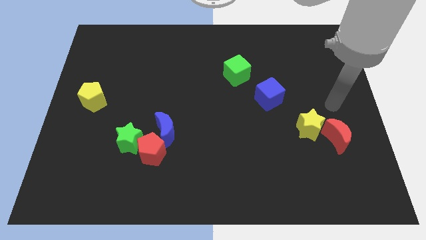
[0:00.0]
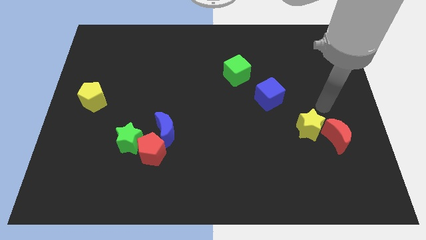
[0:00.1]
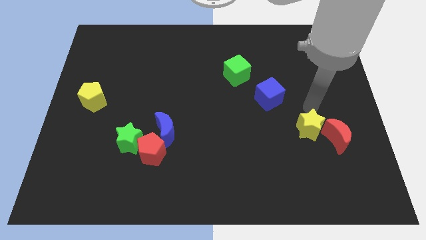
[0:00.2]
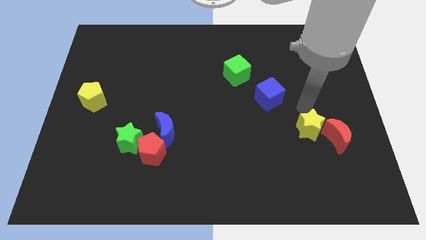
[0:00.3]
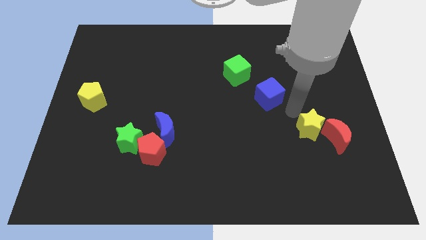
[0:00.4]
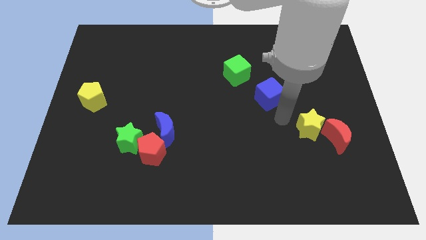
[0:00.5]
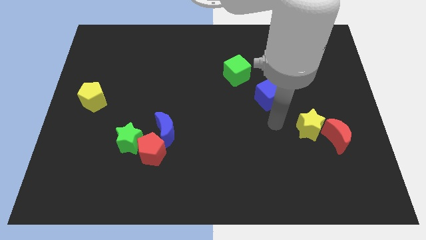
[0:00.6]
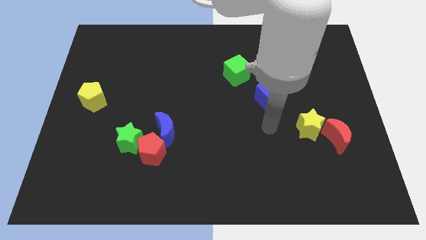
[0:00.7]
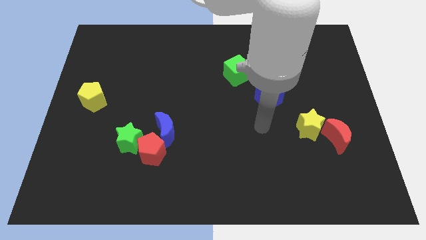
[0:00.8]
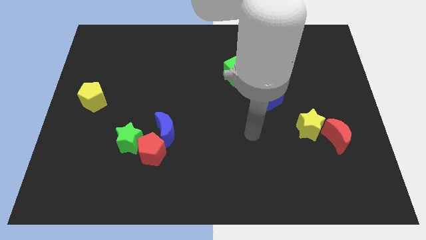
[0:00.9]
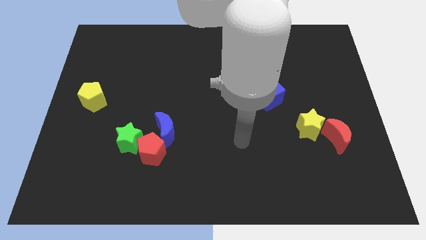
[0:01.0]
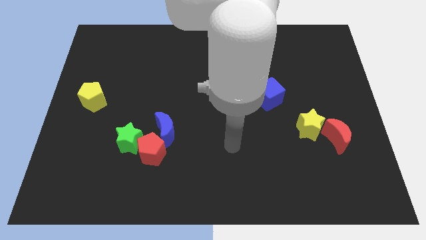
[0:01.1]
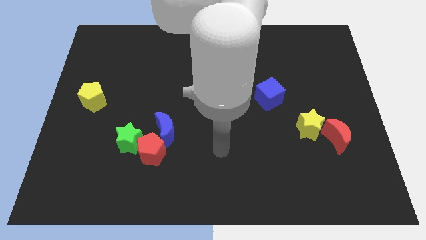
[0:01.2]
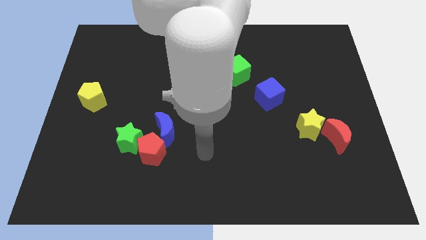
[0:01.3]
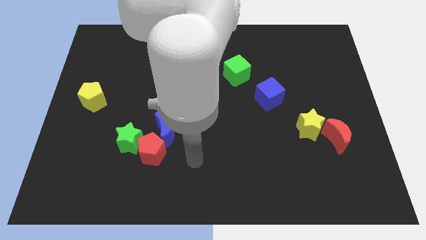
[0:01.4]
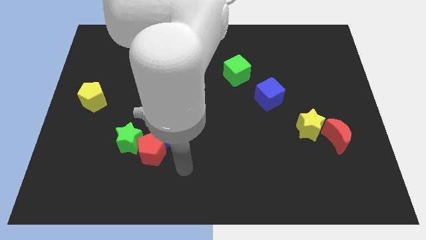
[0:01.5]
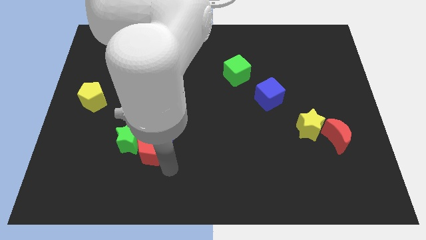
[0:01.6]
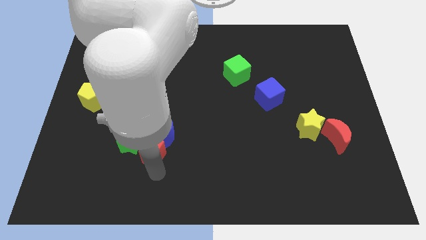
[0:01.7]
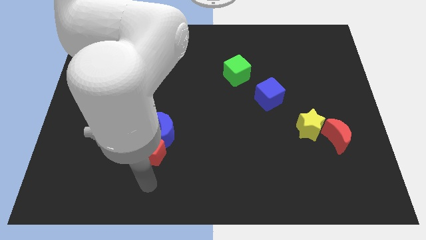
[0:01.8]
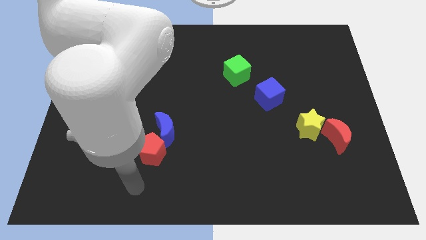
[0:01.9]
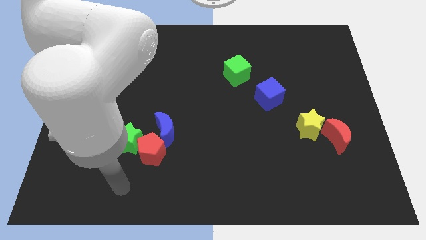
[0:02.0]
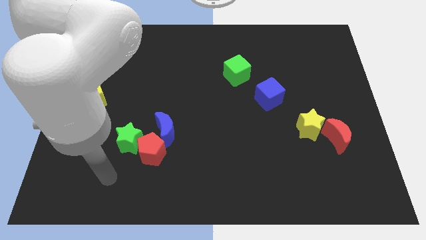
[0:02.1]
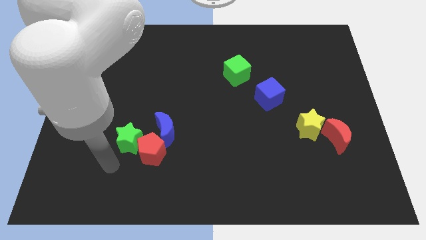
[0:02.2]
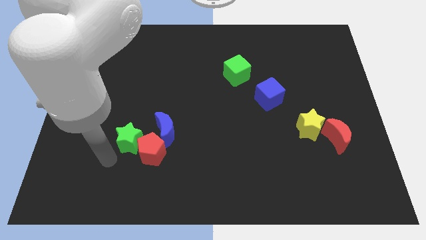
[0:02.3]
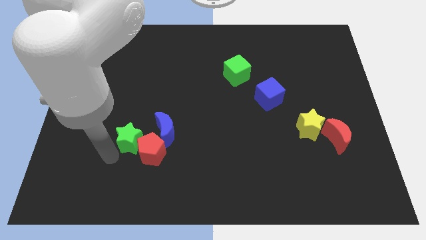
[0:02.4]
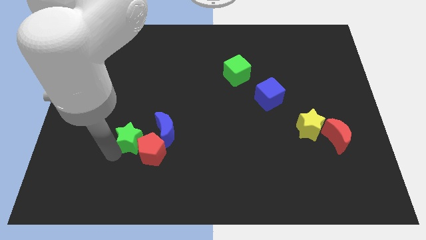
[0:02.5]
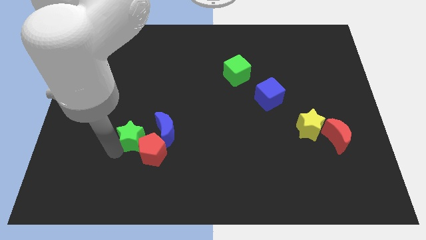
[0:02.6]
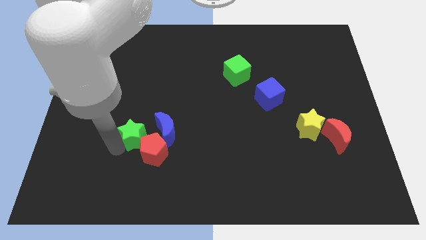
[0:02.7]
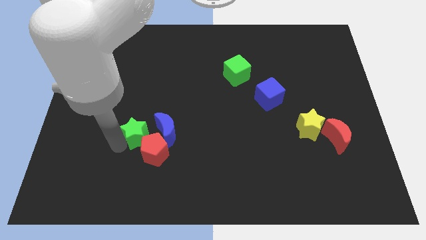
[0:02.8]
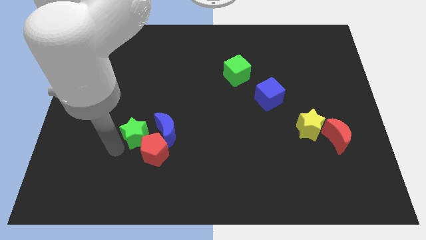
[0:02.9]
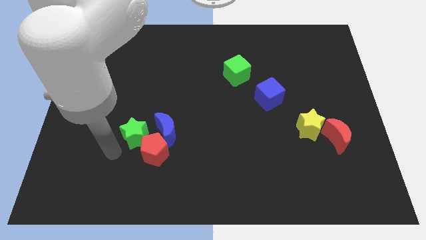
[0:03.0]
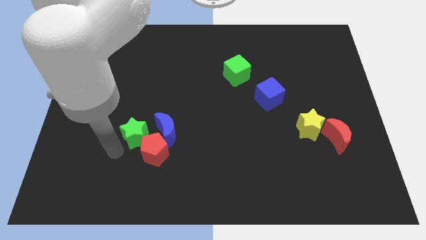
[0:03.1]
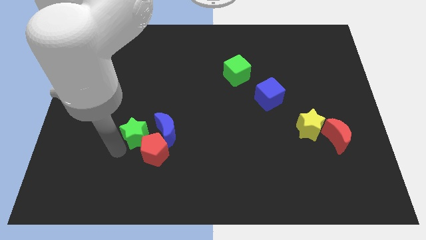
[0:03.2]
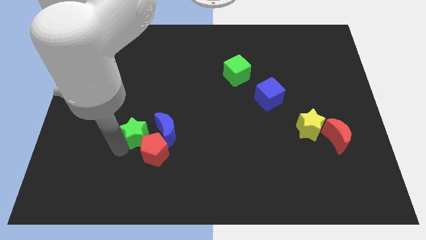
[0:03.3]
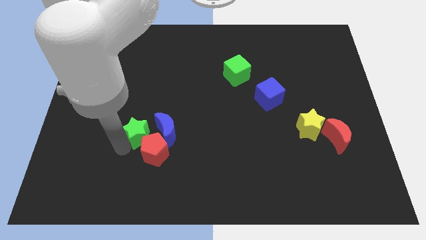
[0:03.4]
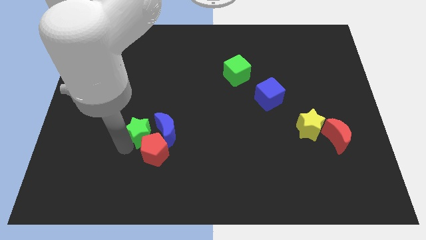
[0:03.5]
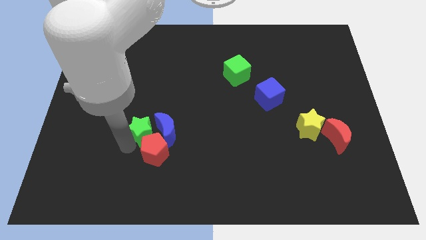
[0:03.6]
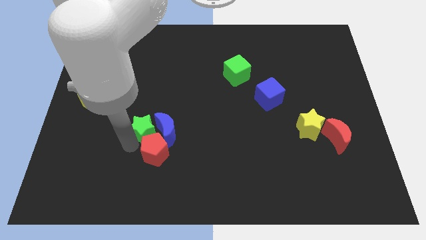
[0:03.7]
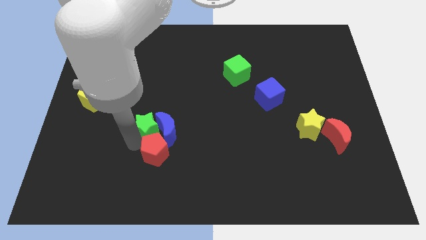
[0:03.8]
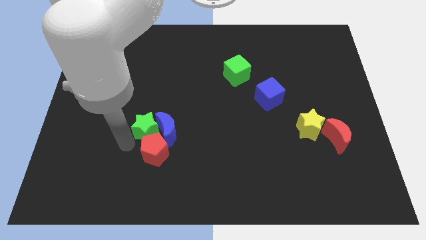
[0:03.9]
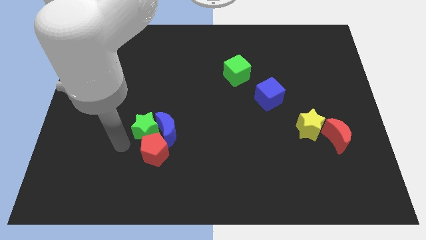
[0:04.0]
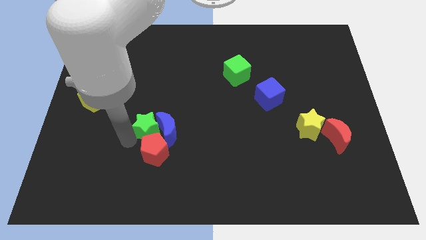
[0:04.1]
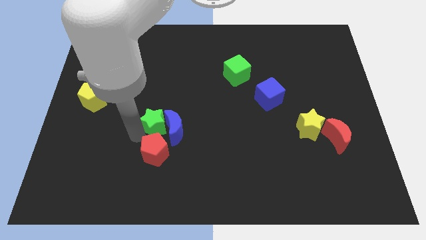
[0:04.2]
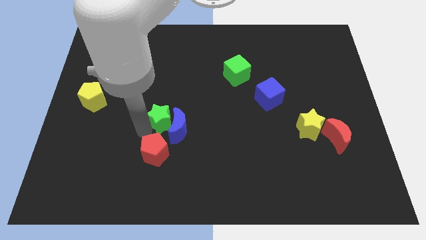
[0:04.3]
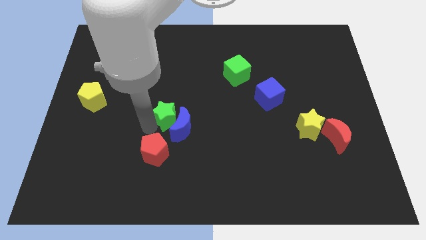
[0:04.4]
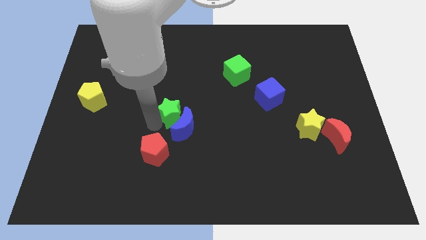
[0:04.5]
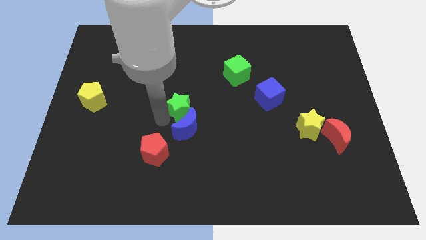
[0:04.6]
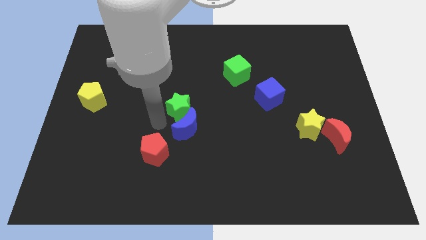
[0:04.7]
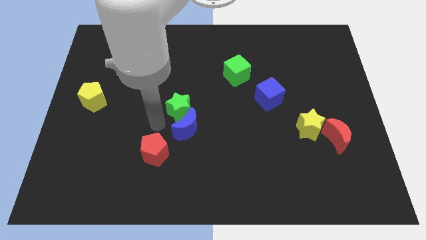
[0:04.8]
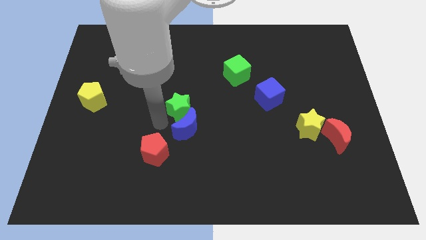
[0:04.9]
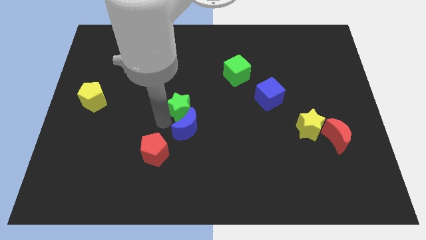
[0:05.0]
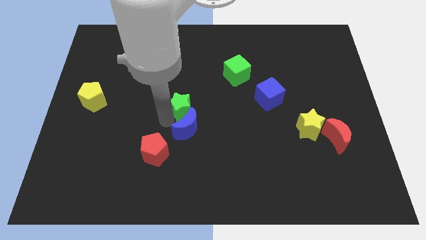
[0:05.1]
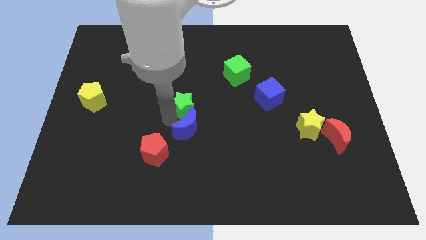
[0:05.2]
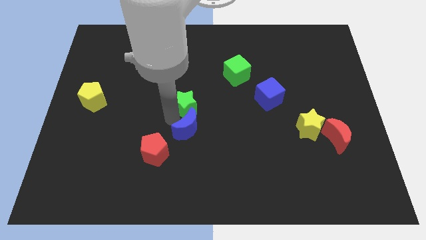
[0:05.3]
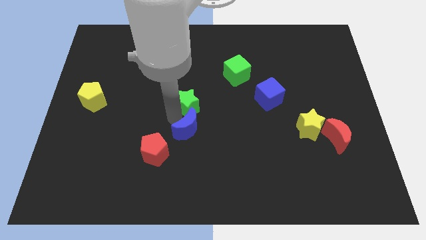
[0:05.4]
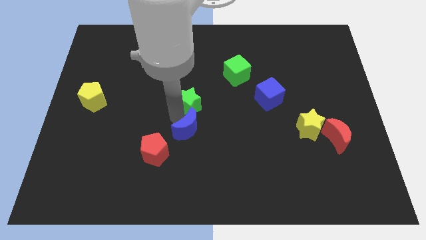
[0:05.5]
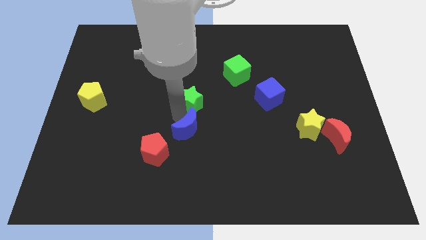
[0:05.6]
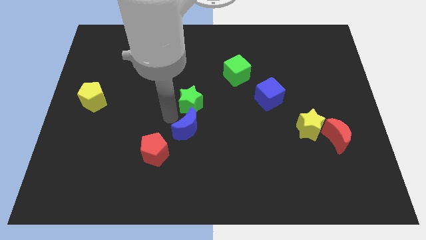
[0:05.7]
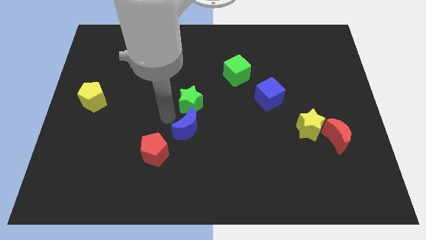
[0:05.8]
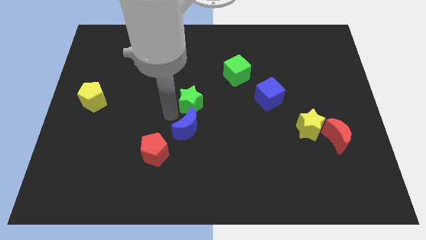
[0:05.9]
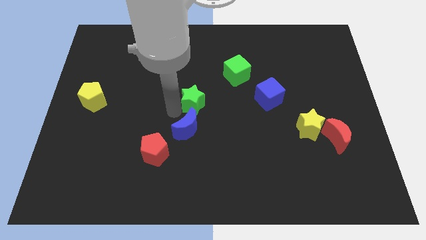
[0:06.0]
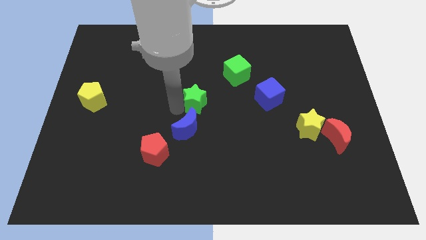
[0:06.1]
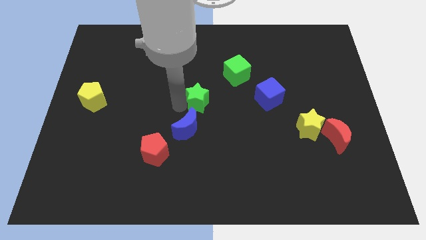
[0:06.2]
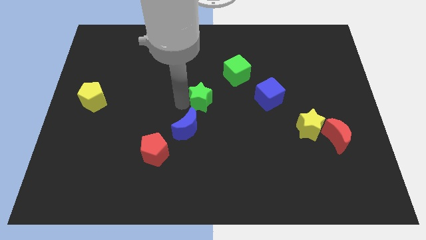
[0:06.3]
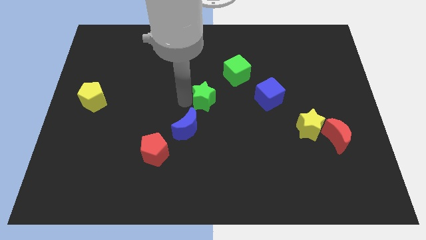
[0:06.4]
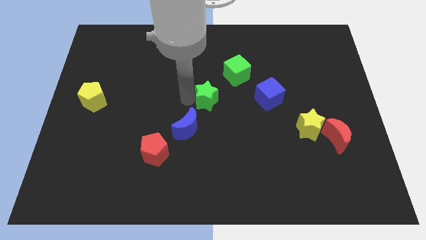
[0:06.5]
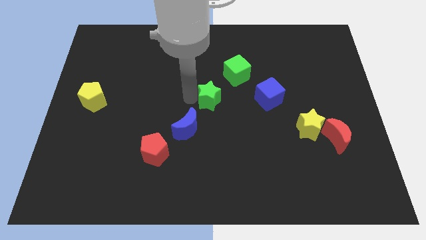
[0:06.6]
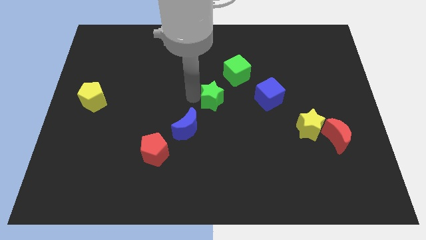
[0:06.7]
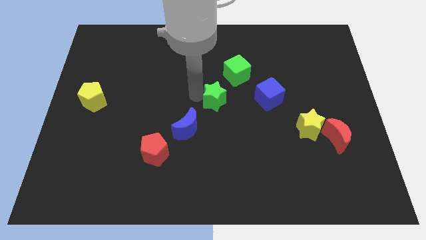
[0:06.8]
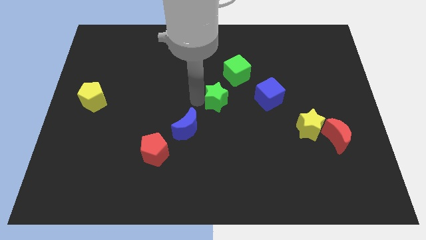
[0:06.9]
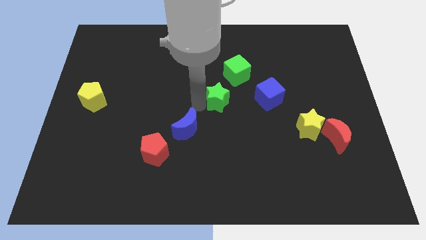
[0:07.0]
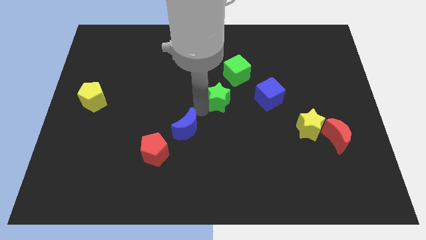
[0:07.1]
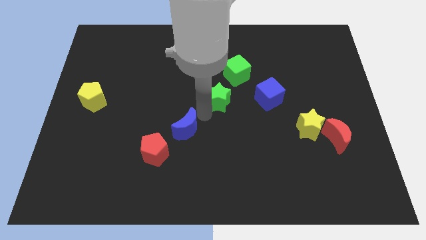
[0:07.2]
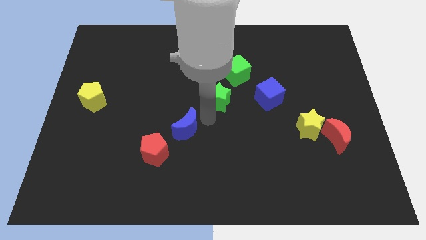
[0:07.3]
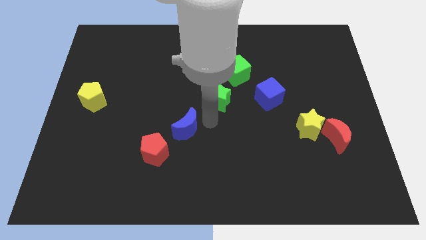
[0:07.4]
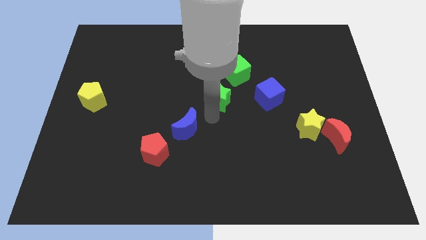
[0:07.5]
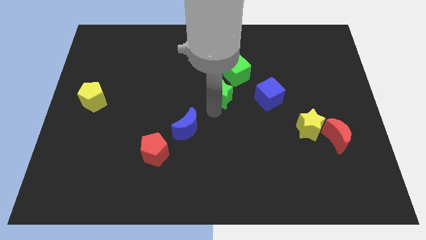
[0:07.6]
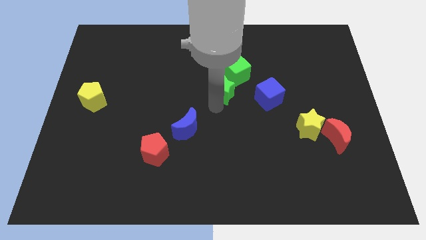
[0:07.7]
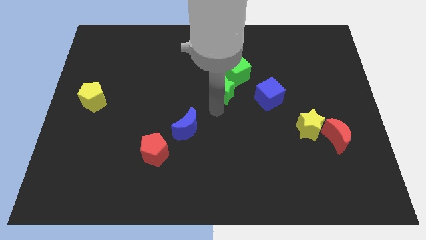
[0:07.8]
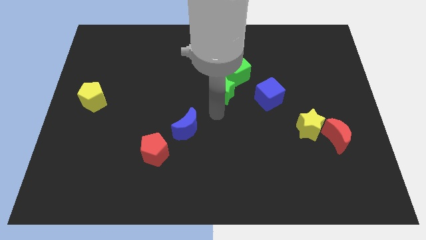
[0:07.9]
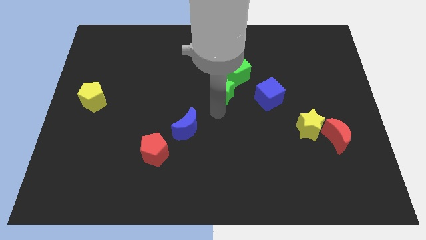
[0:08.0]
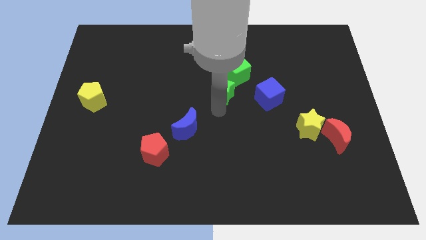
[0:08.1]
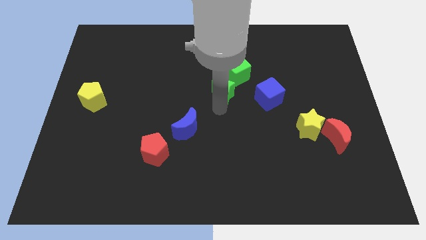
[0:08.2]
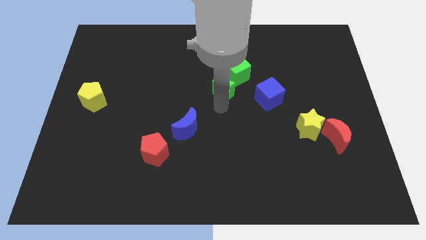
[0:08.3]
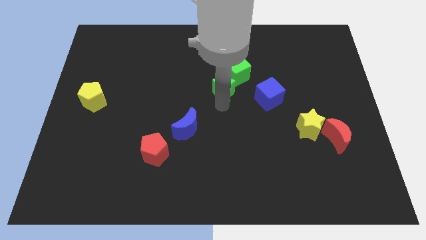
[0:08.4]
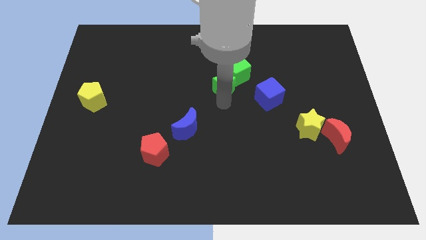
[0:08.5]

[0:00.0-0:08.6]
push the green star to the green cube
